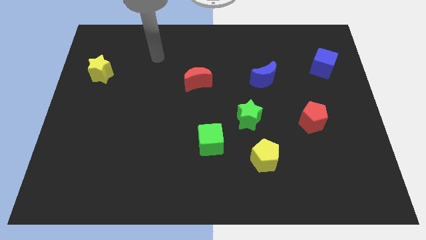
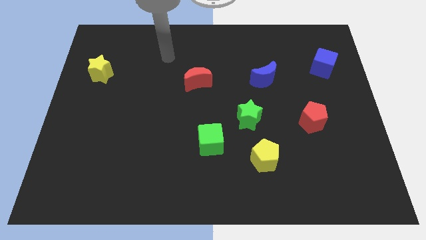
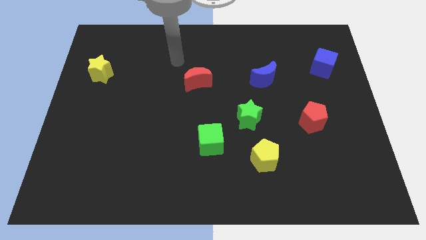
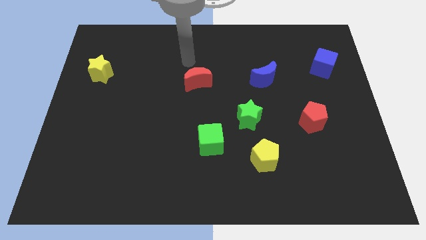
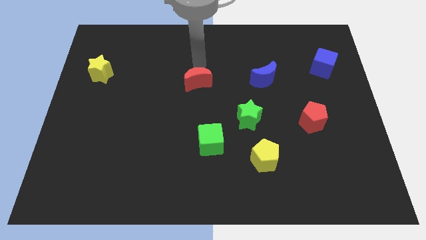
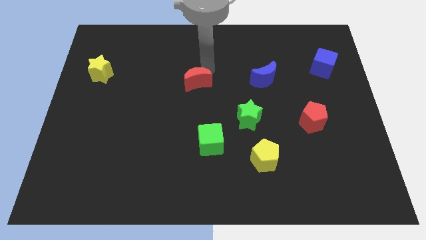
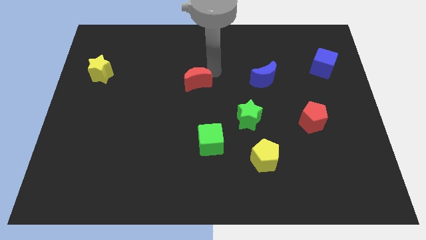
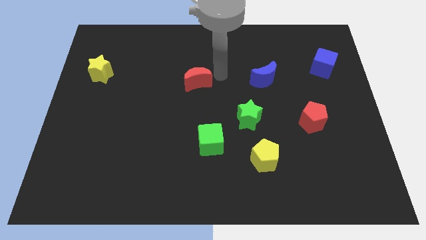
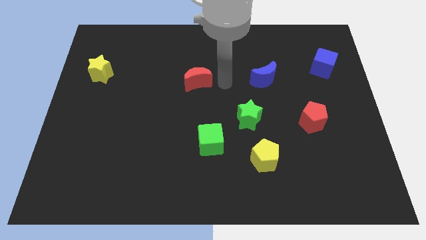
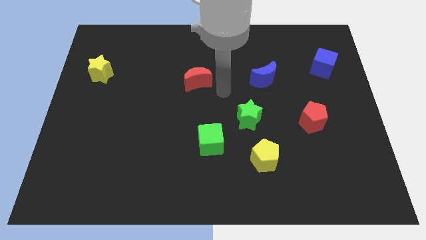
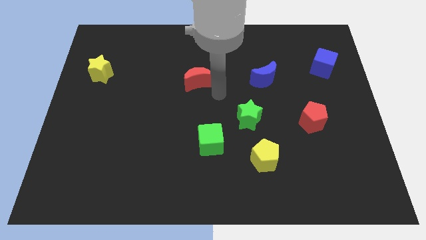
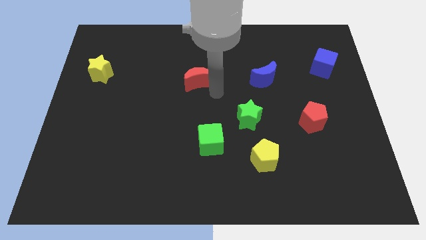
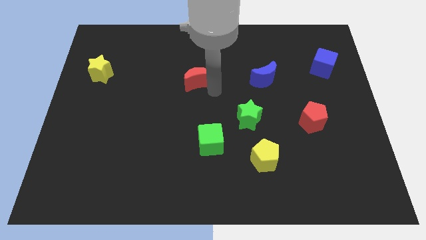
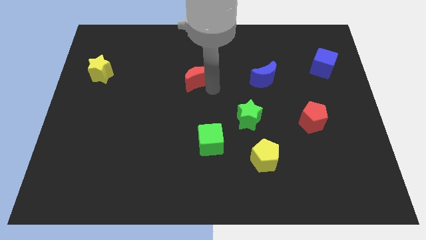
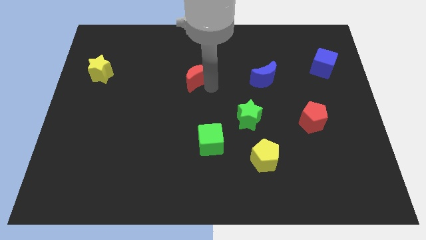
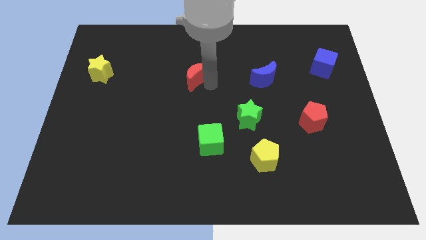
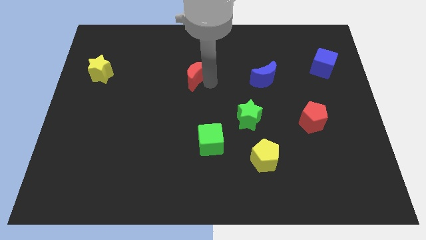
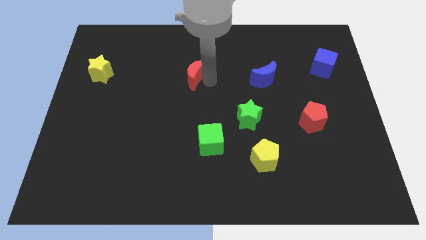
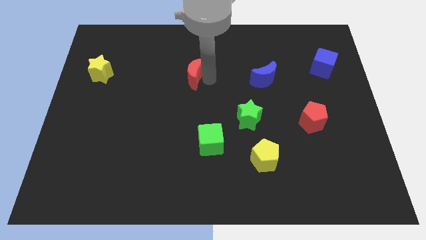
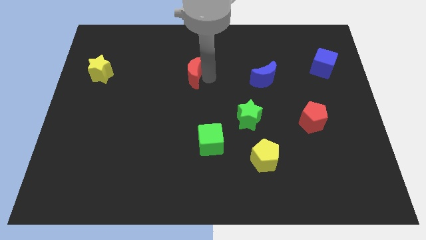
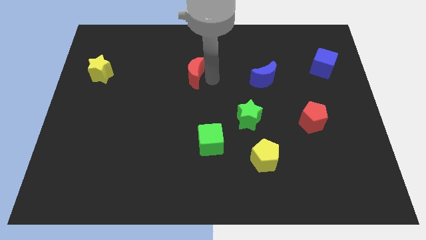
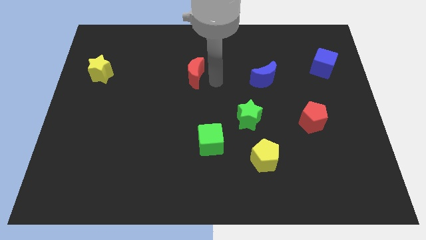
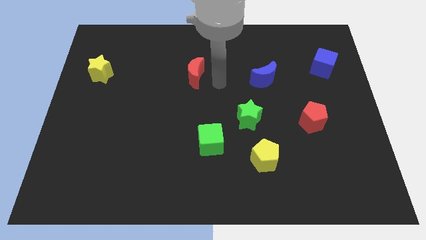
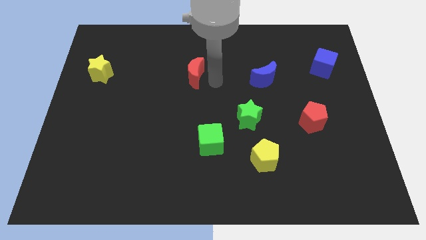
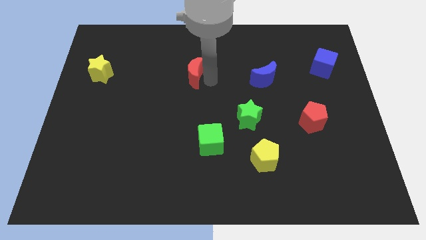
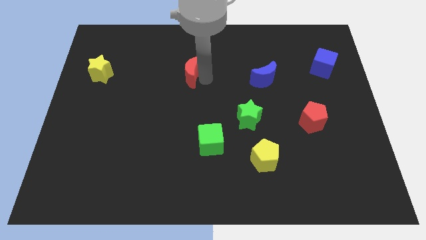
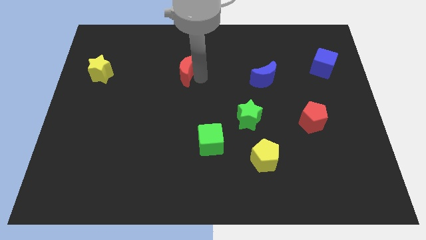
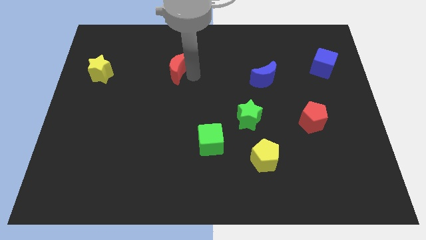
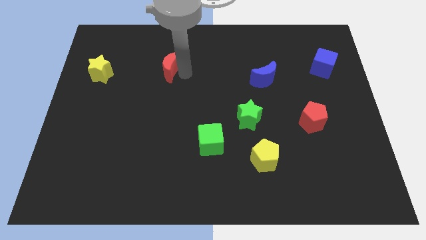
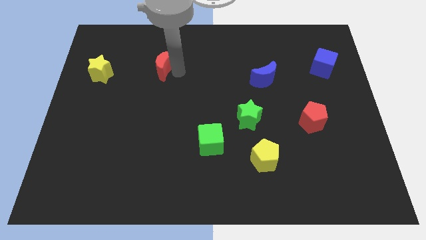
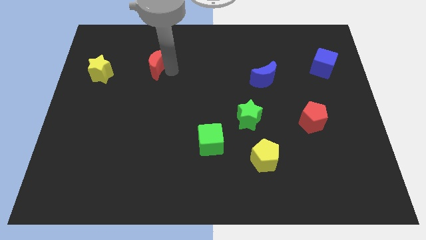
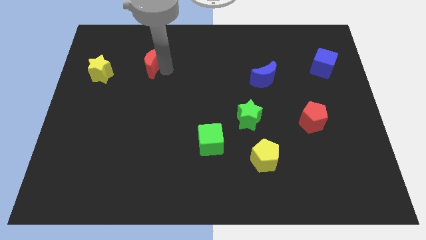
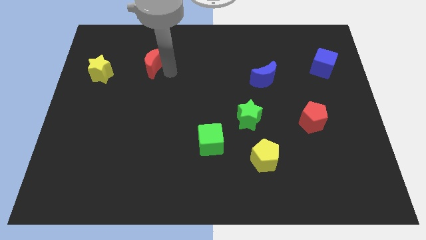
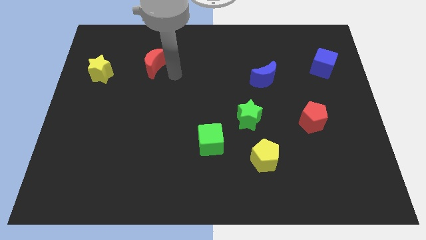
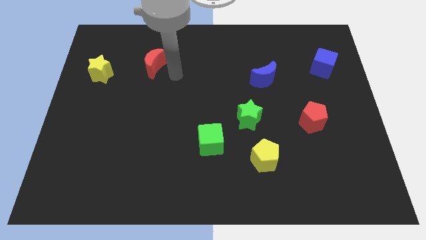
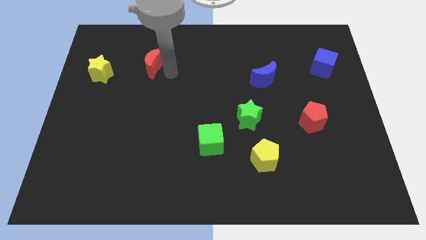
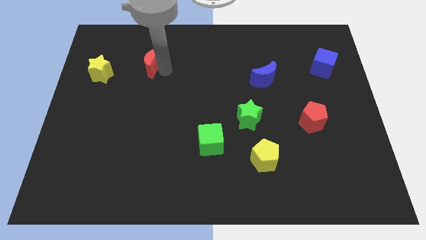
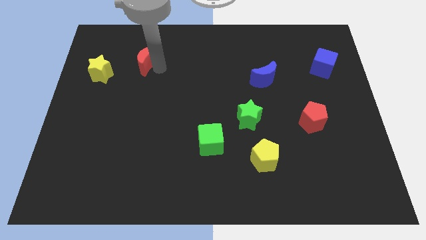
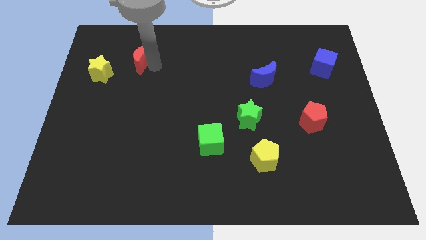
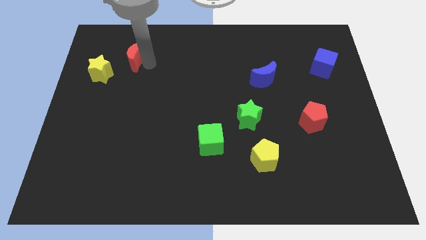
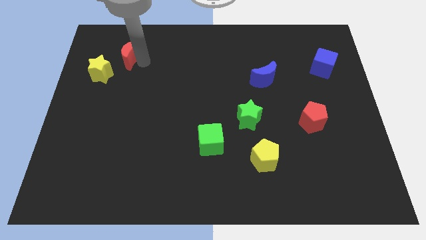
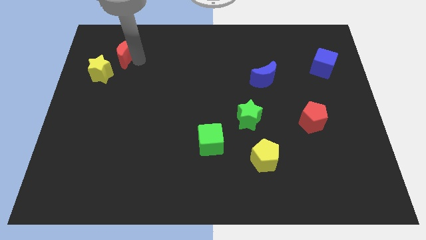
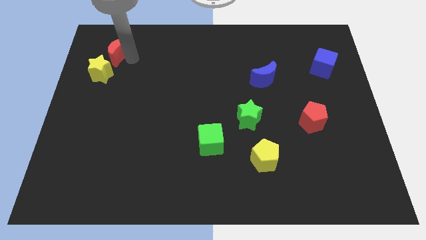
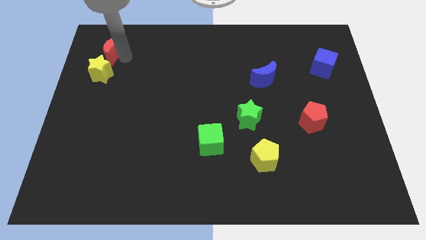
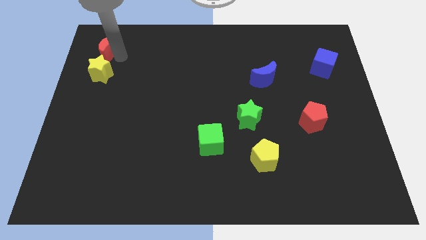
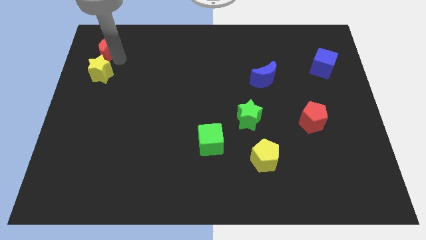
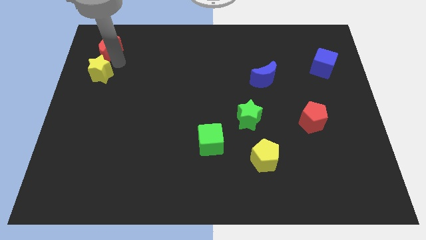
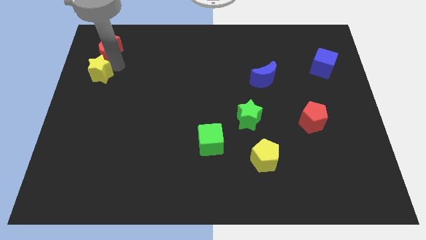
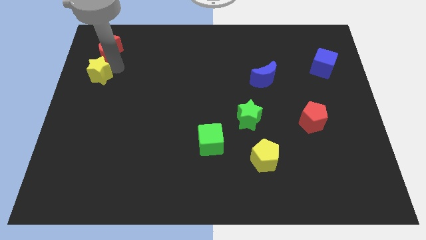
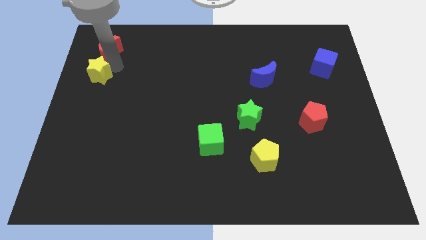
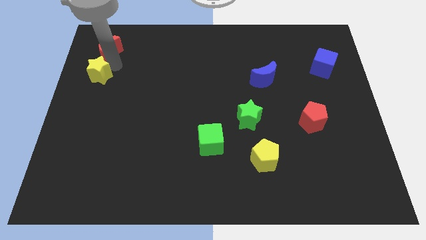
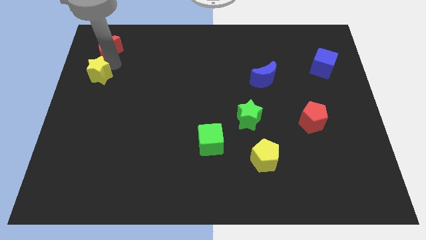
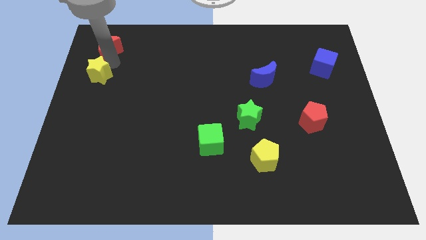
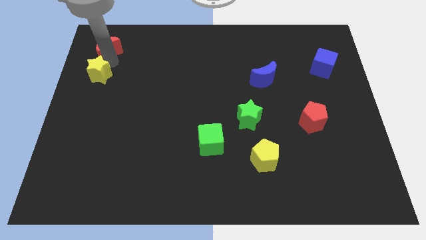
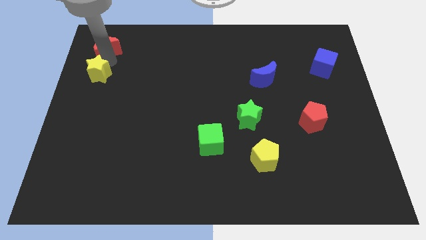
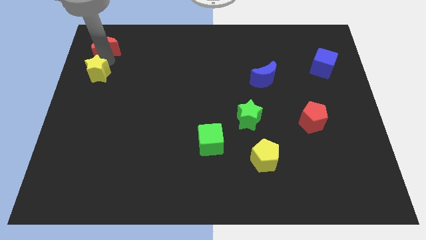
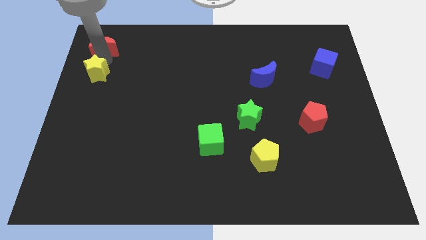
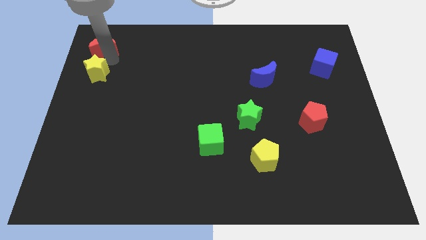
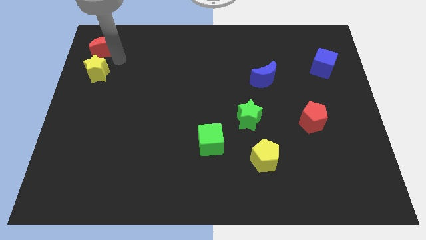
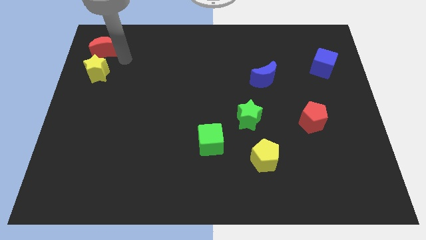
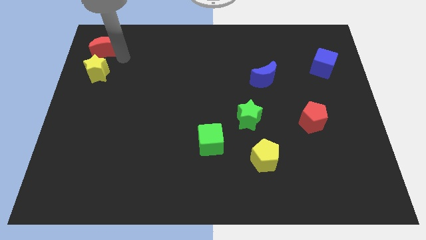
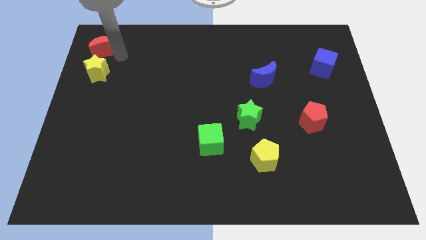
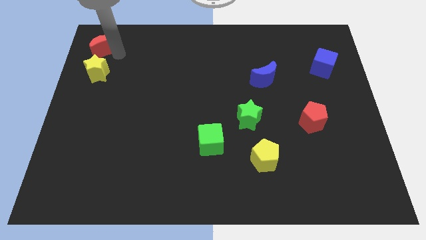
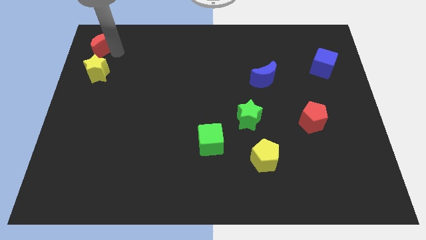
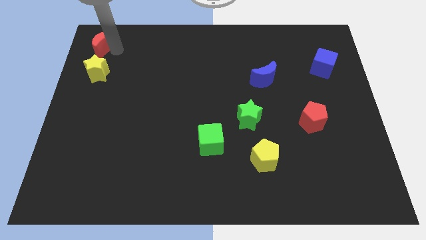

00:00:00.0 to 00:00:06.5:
put the red moon to the upper left corner

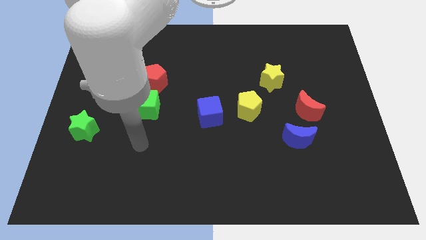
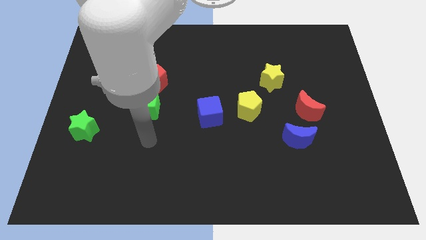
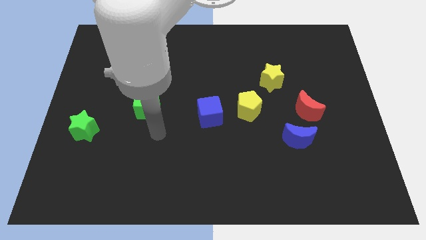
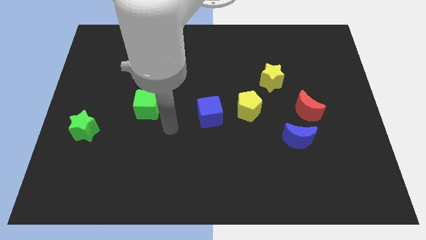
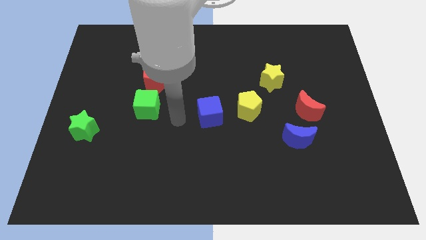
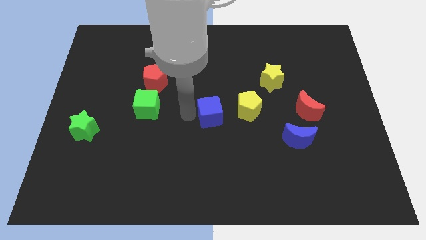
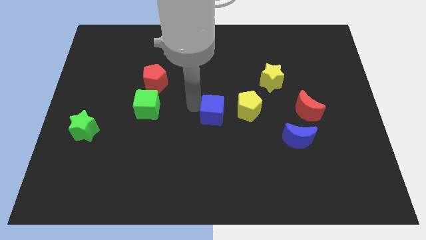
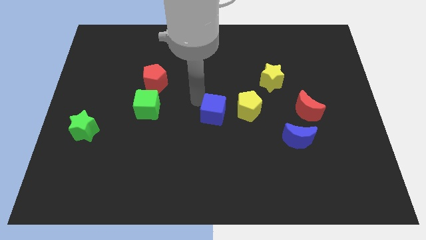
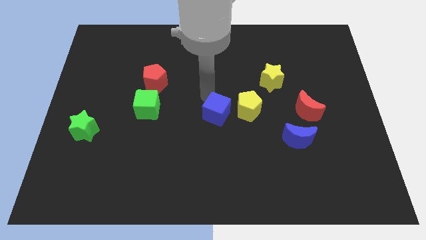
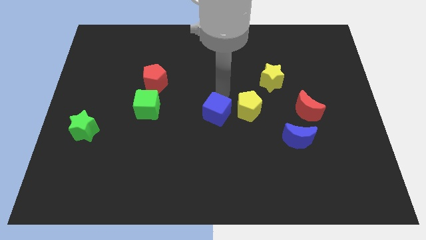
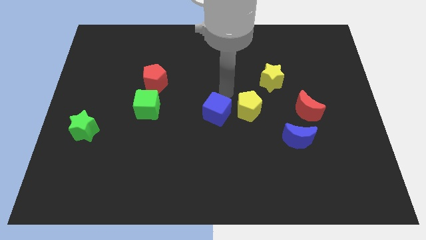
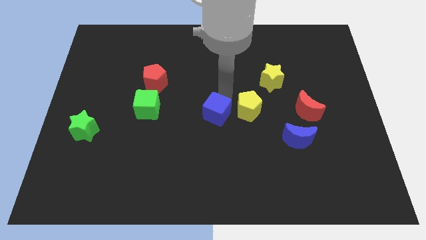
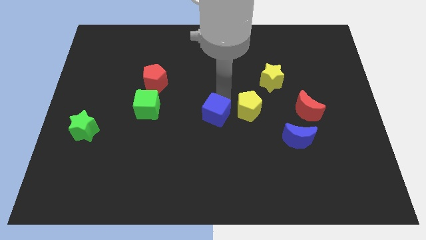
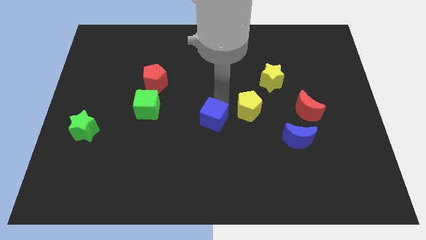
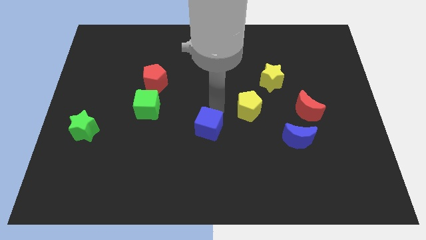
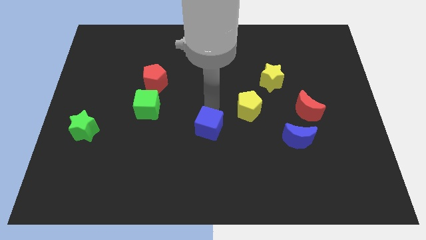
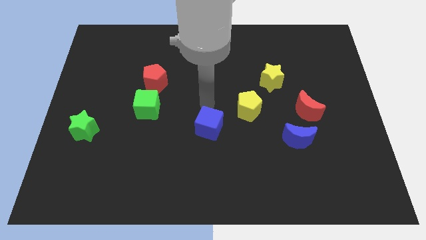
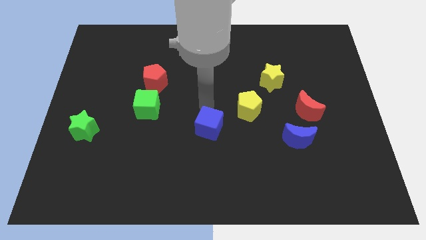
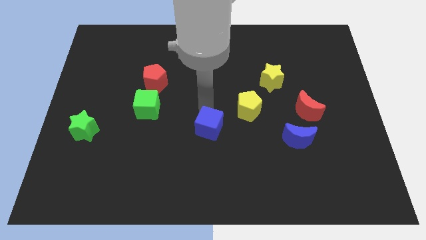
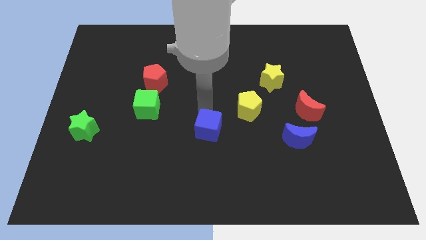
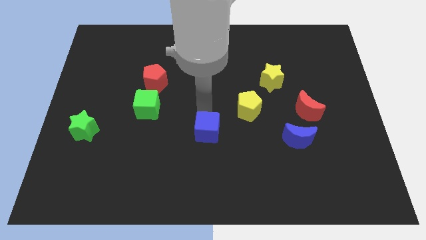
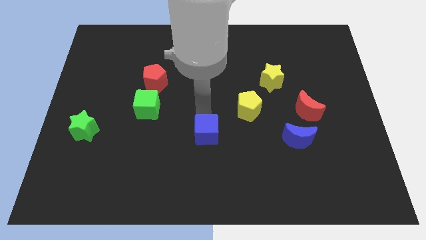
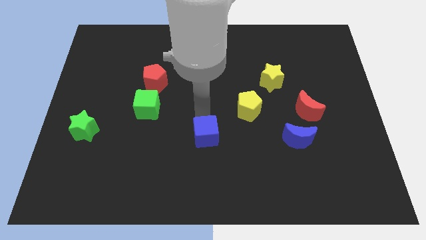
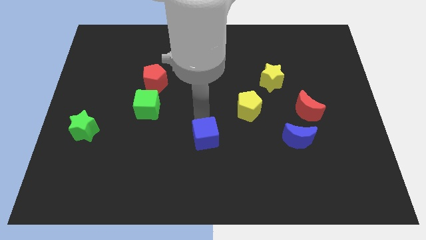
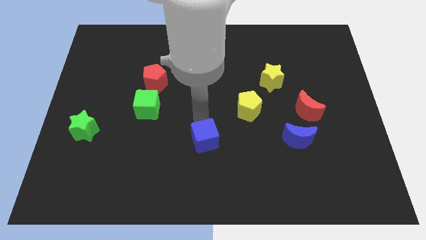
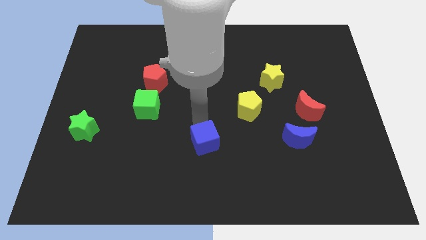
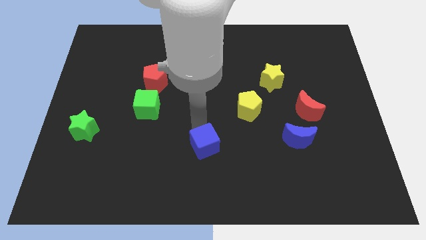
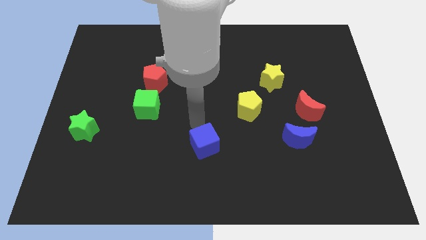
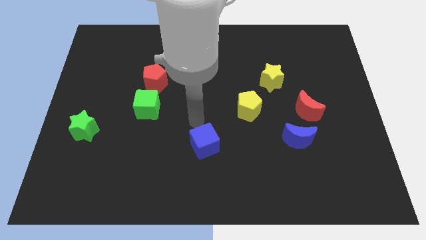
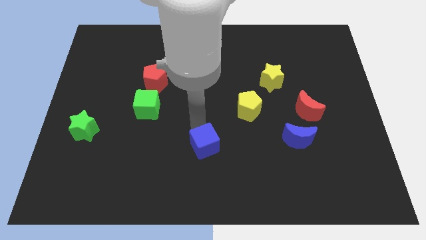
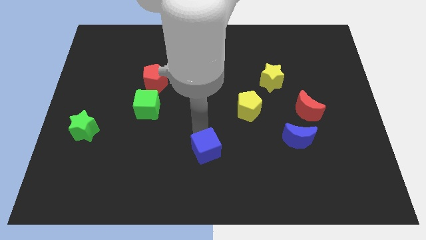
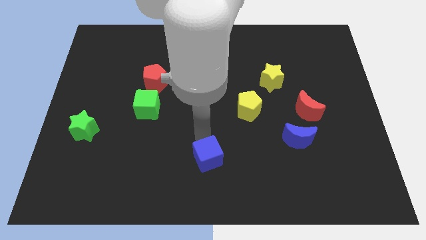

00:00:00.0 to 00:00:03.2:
slide the blue cube to the bottom side
